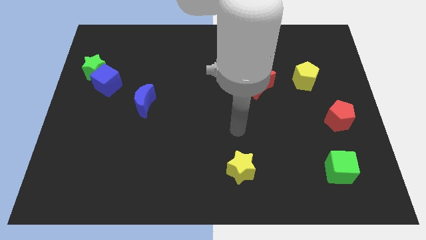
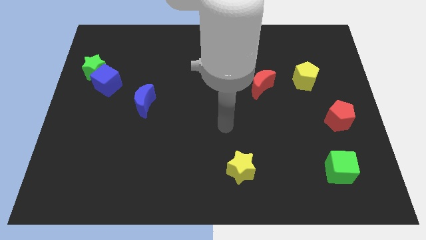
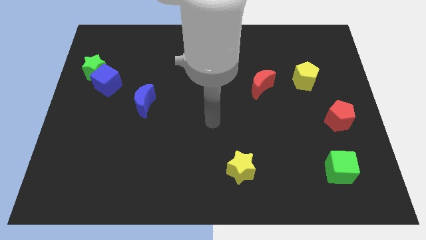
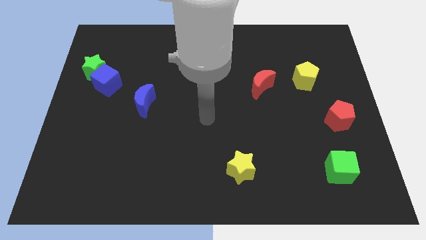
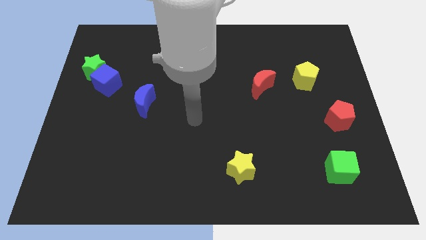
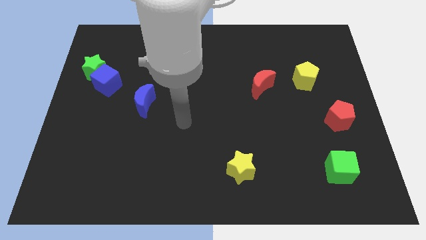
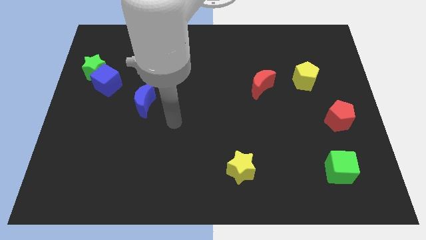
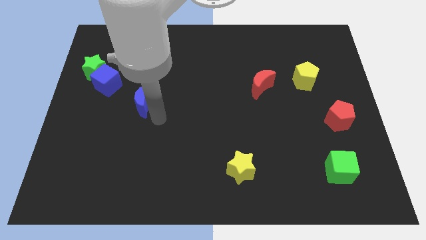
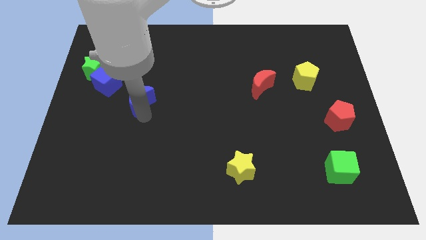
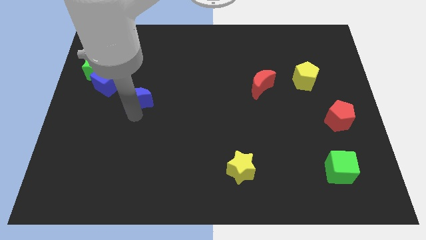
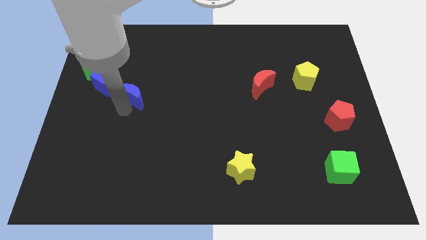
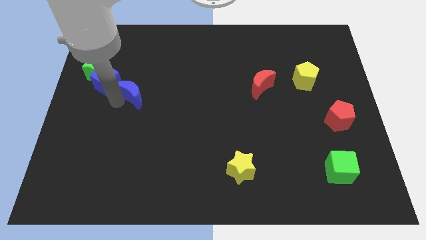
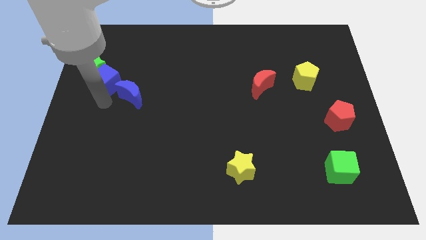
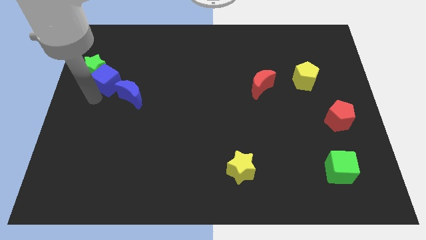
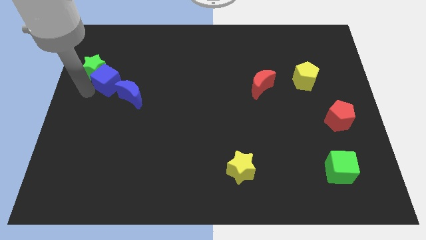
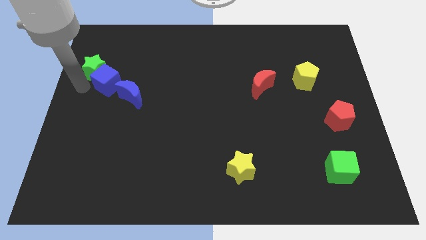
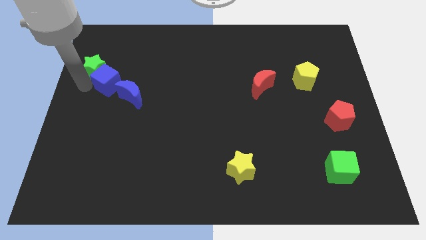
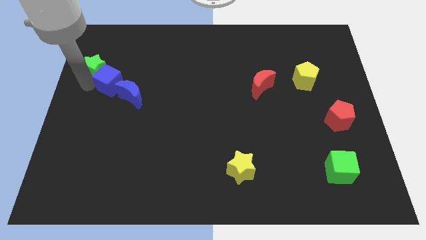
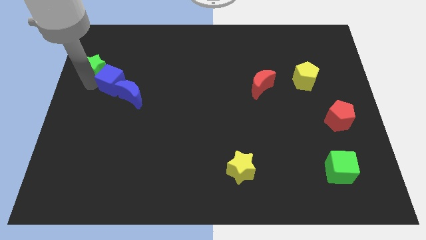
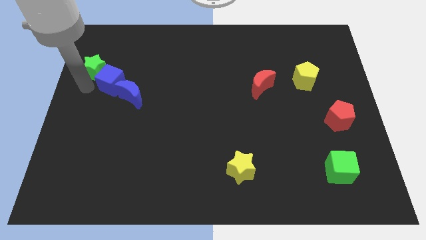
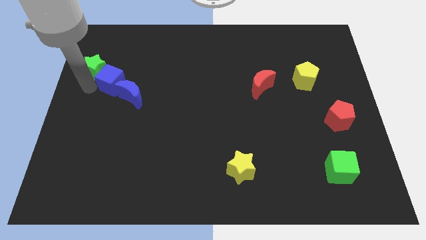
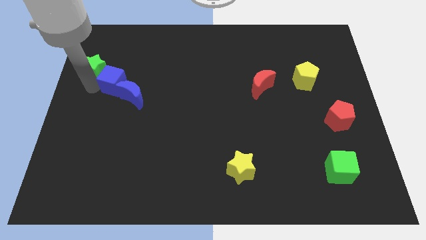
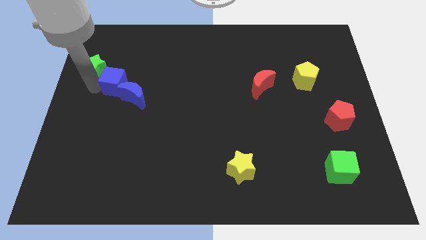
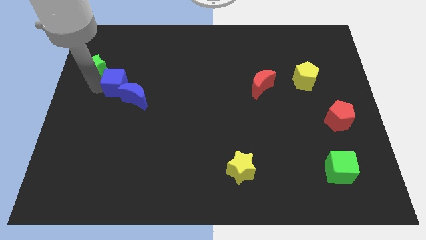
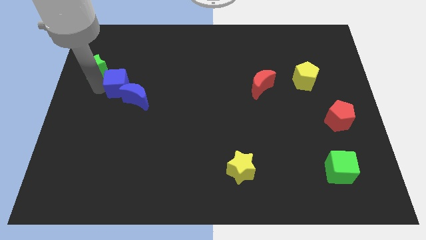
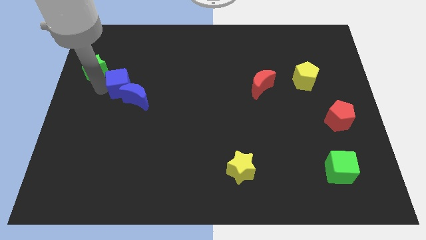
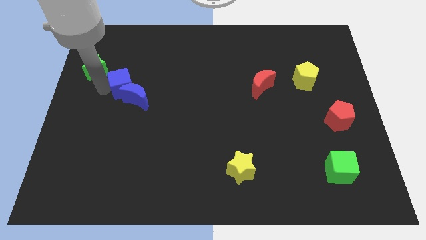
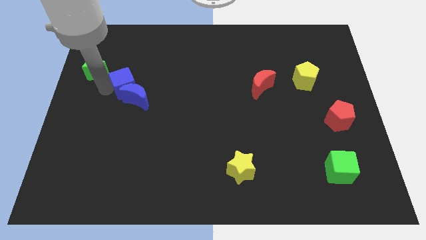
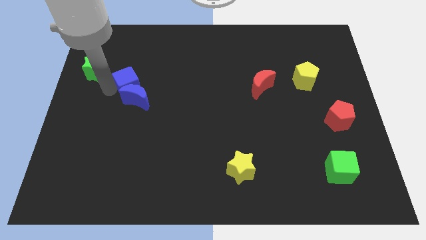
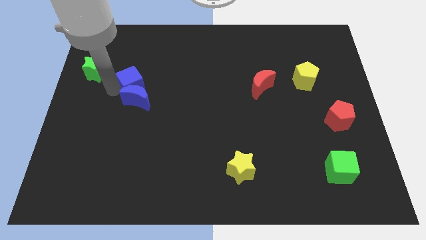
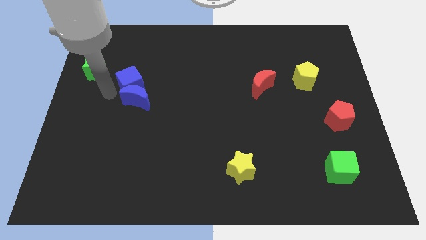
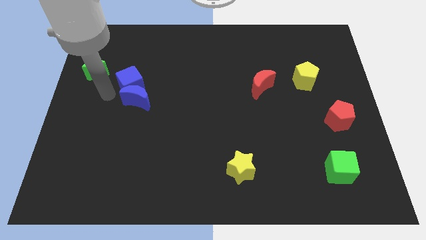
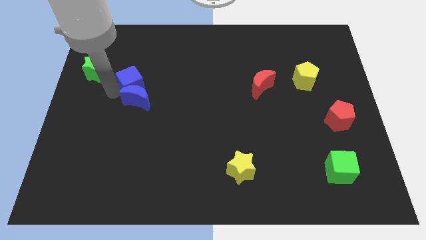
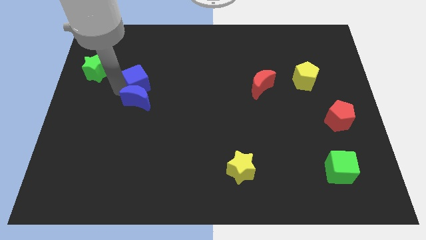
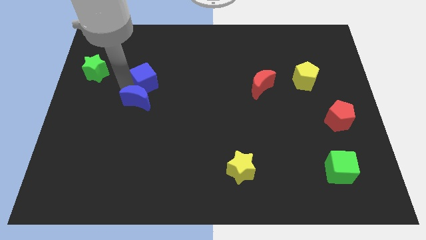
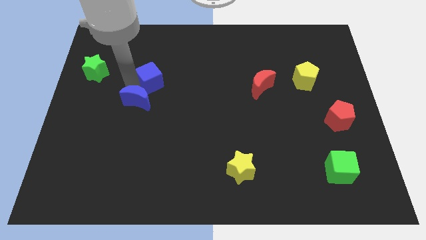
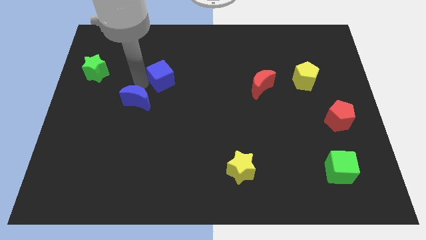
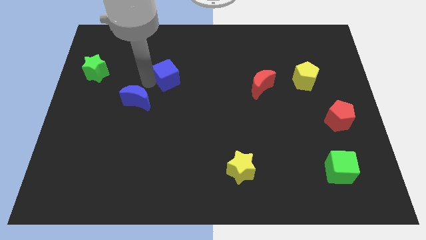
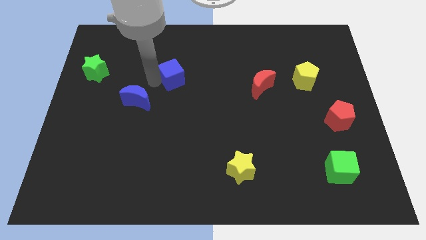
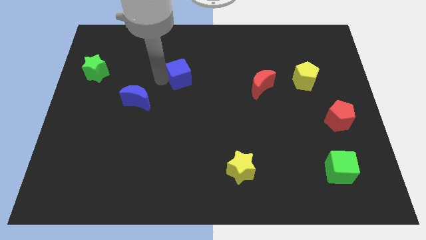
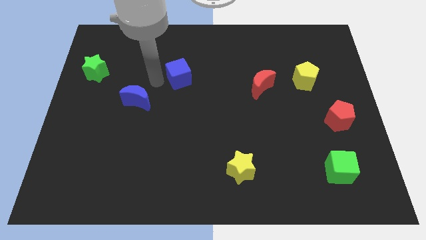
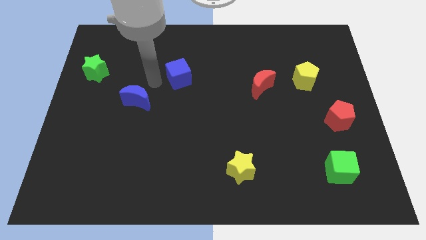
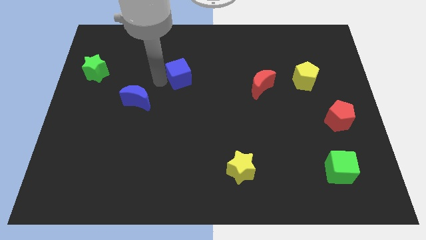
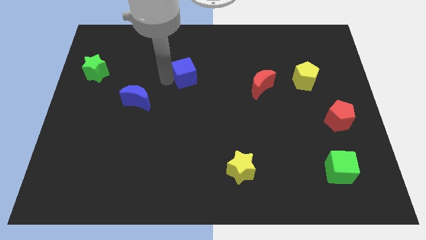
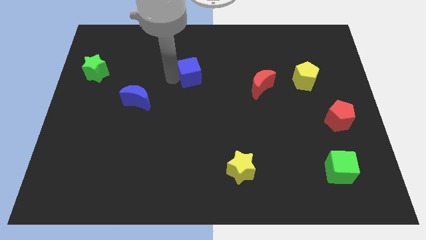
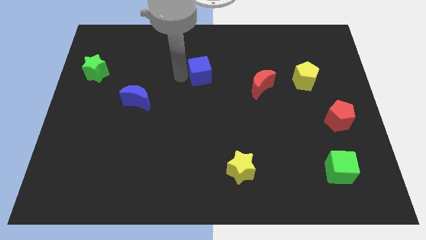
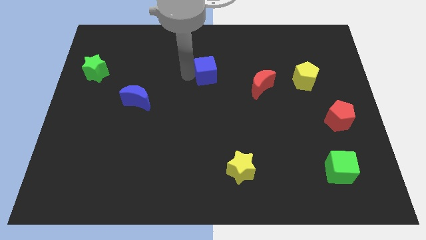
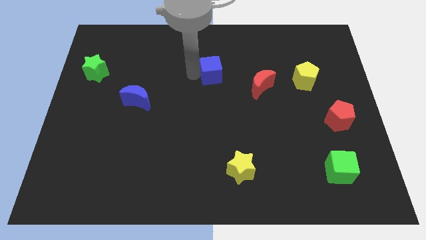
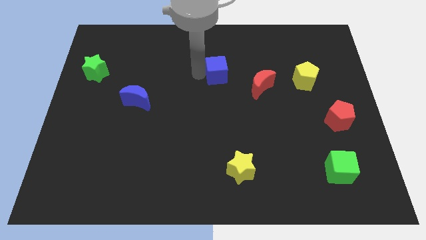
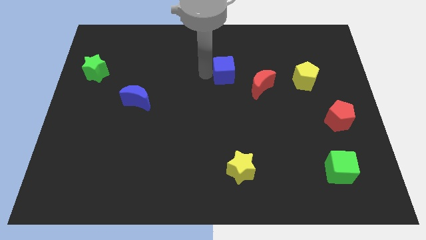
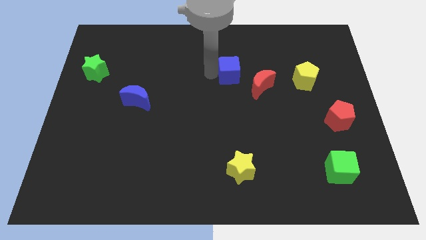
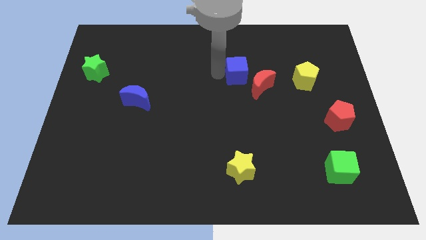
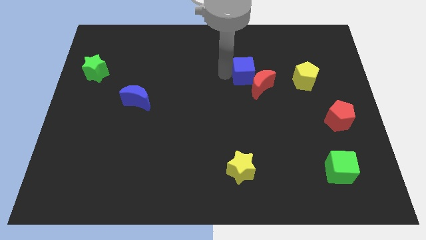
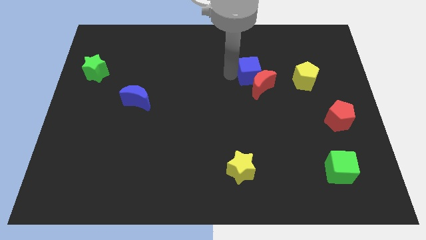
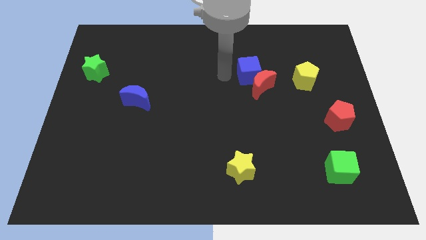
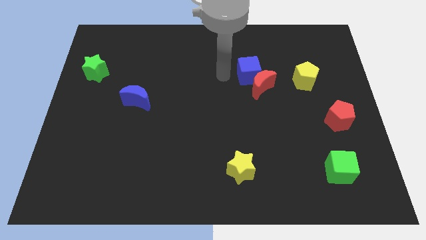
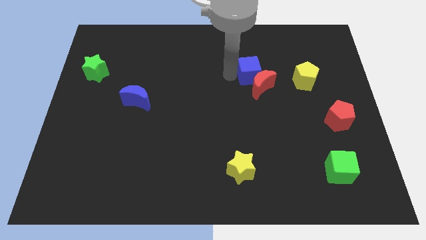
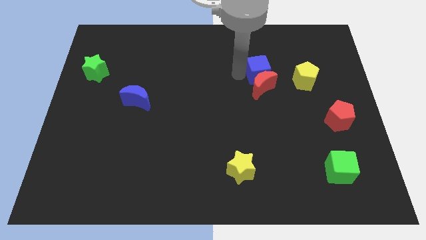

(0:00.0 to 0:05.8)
put the blue cube to the top right of the red moon
